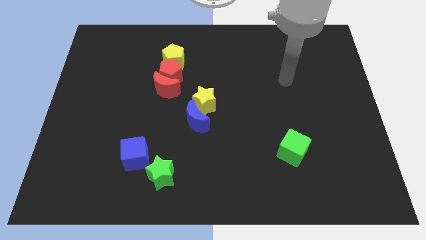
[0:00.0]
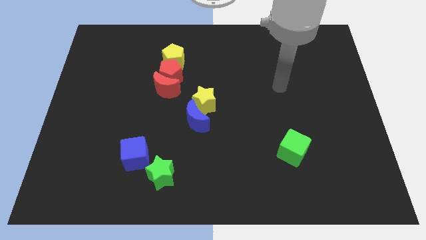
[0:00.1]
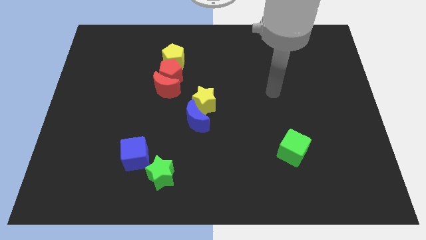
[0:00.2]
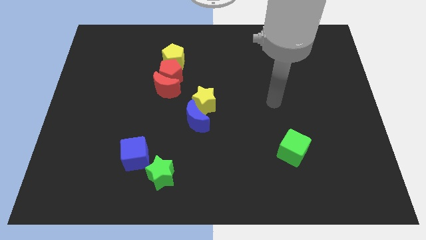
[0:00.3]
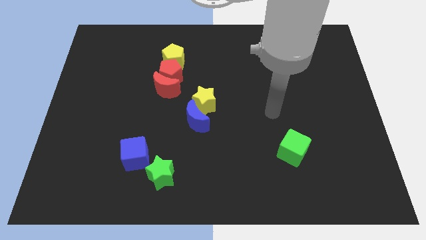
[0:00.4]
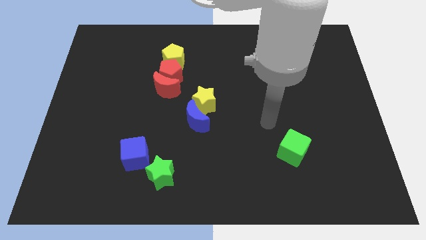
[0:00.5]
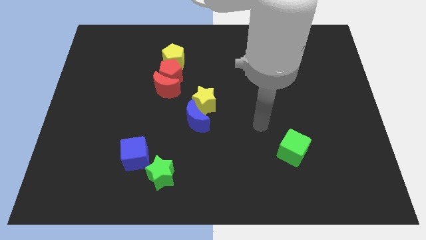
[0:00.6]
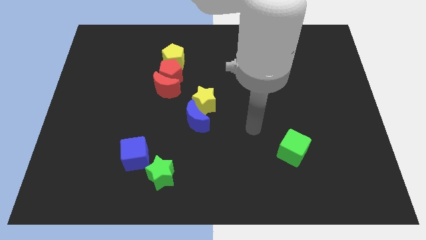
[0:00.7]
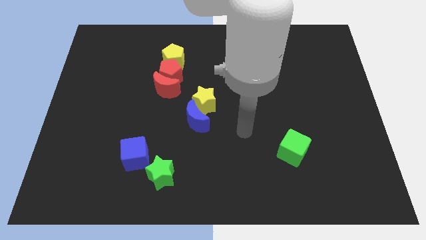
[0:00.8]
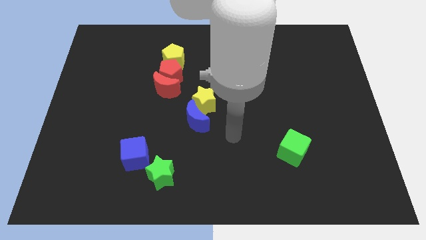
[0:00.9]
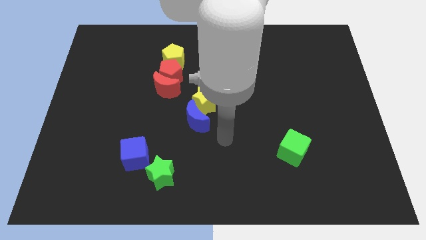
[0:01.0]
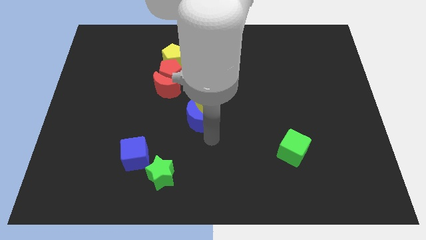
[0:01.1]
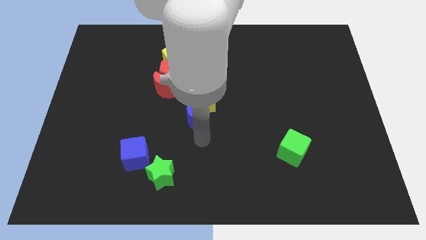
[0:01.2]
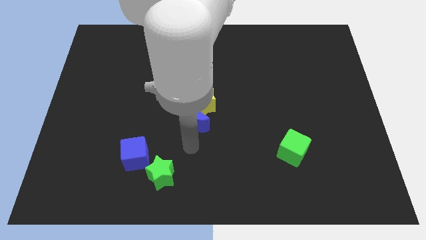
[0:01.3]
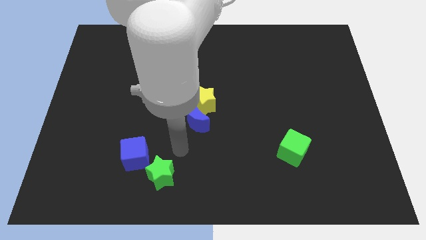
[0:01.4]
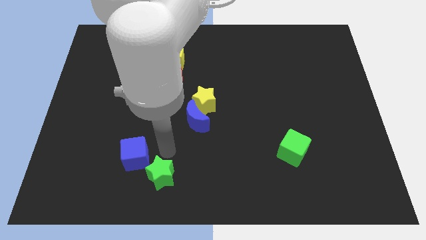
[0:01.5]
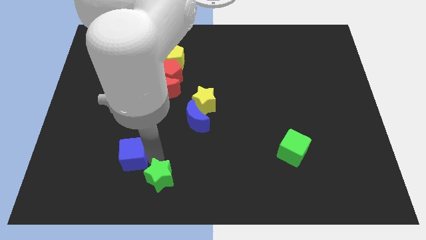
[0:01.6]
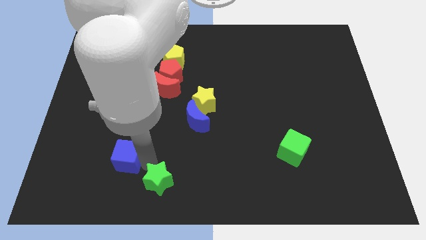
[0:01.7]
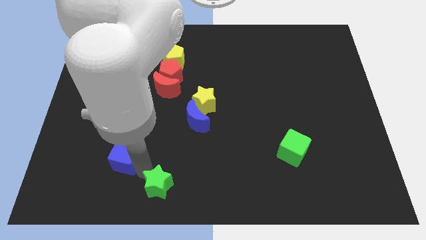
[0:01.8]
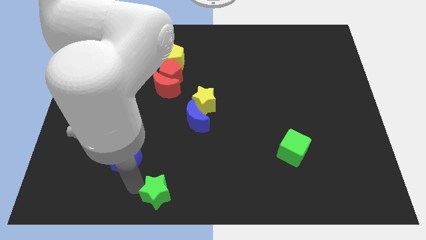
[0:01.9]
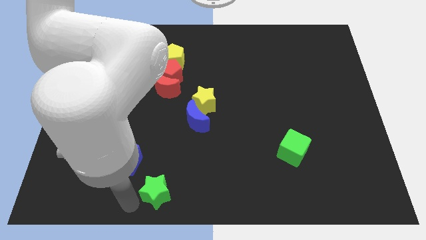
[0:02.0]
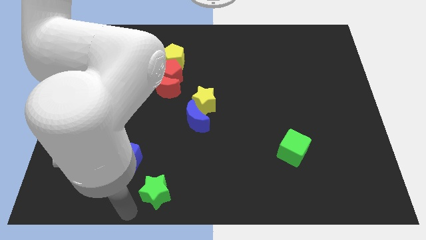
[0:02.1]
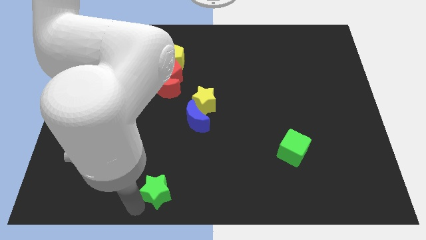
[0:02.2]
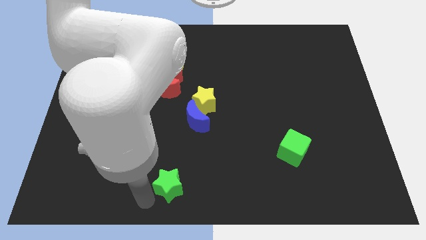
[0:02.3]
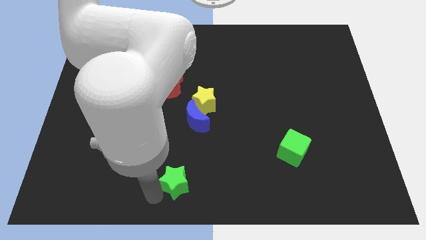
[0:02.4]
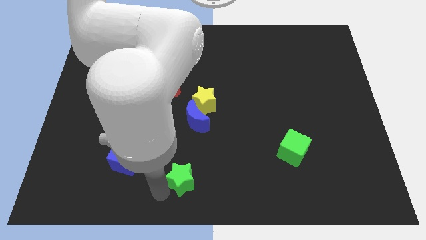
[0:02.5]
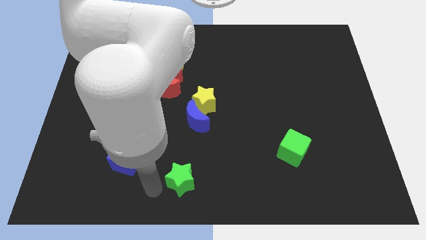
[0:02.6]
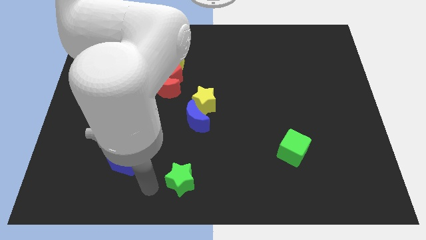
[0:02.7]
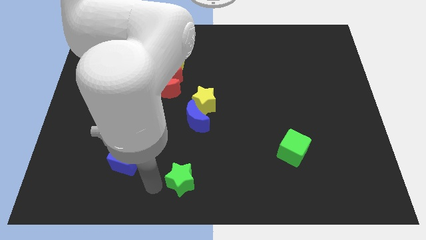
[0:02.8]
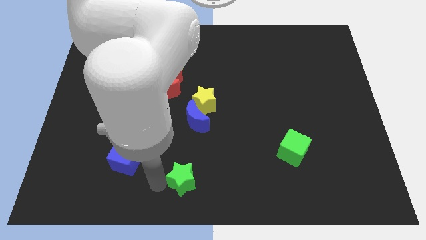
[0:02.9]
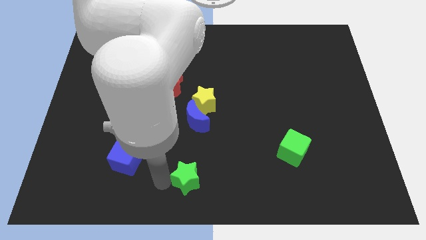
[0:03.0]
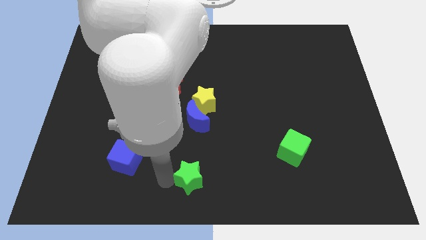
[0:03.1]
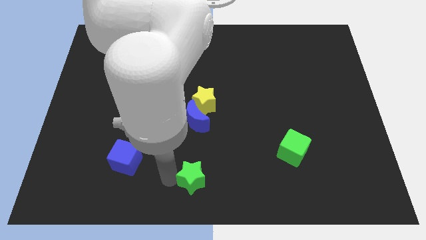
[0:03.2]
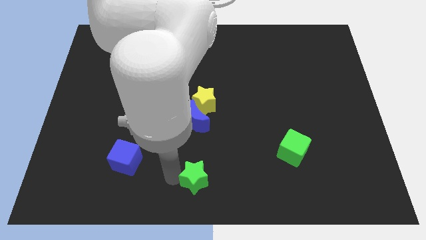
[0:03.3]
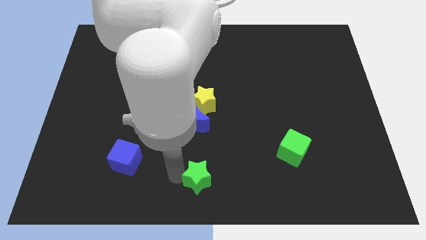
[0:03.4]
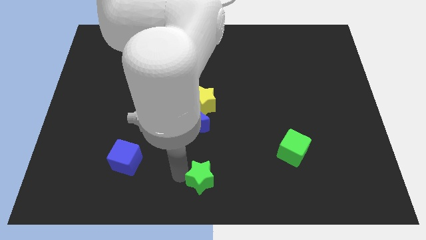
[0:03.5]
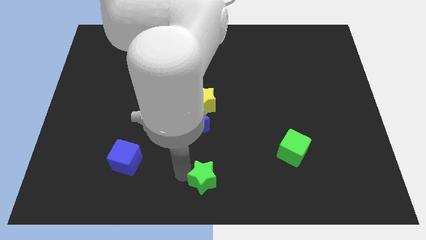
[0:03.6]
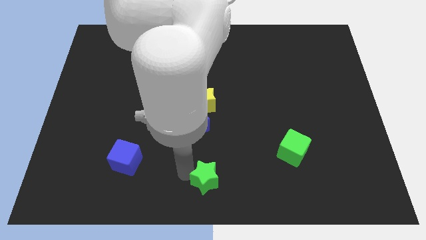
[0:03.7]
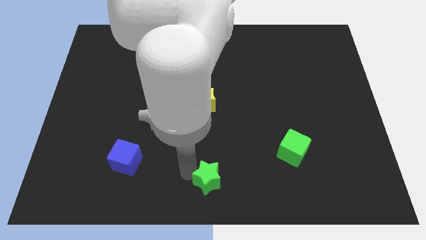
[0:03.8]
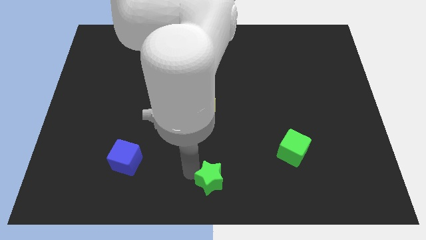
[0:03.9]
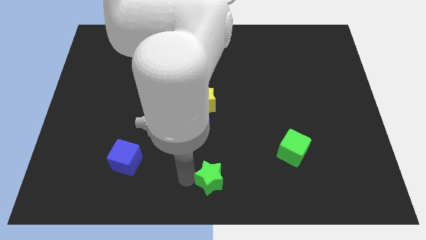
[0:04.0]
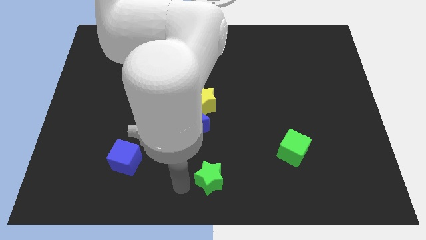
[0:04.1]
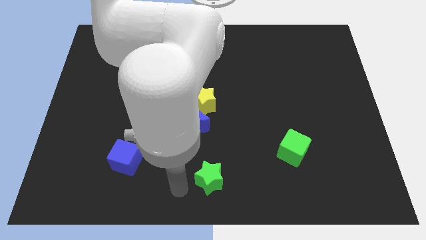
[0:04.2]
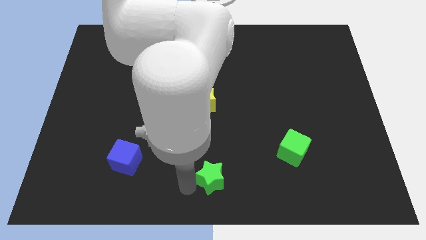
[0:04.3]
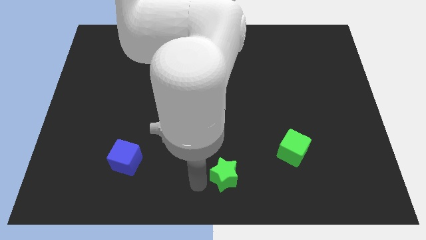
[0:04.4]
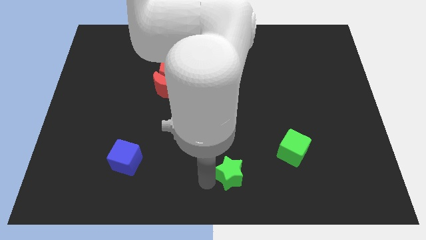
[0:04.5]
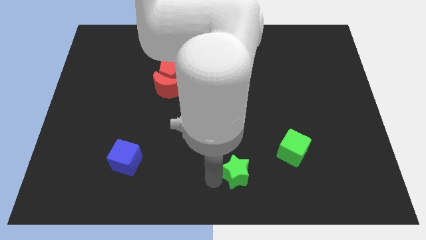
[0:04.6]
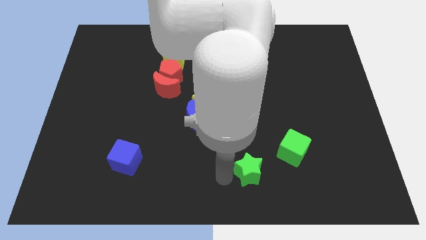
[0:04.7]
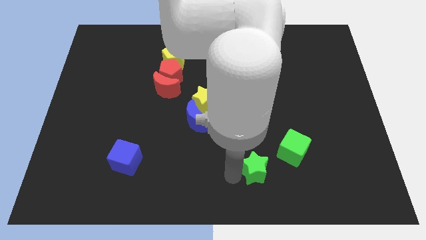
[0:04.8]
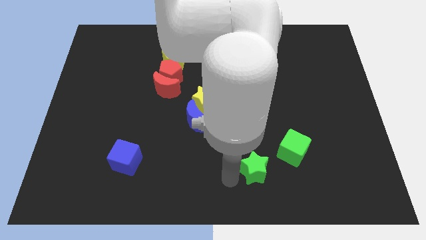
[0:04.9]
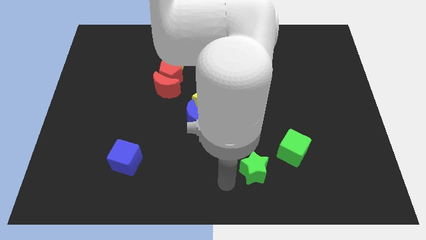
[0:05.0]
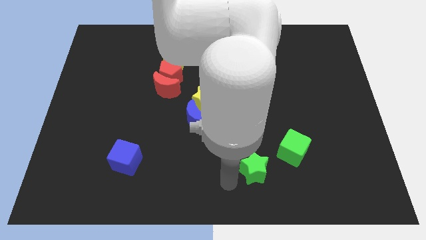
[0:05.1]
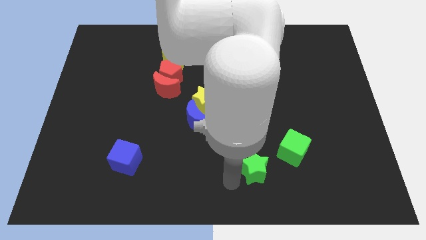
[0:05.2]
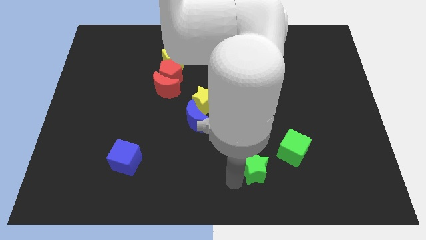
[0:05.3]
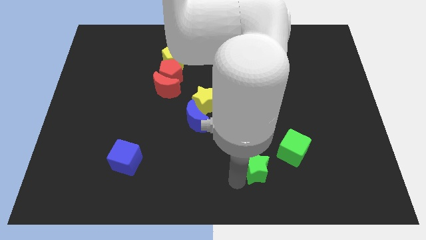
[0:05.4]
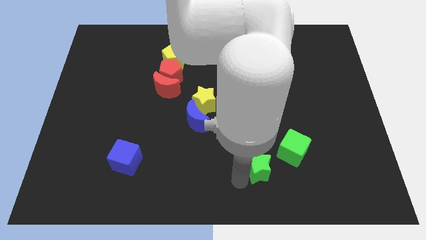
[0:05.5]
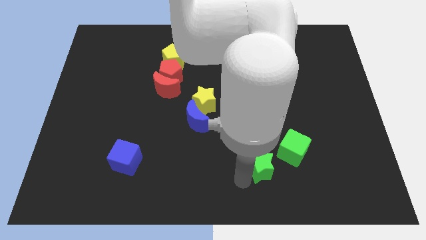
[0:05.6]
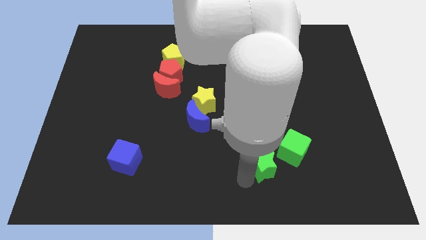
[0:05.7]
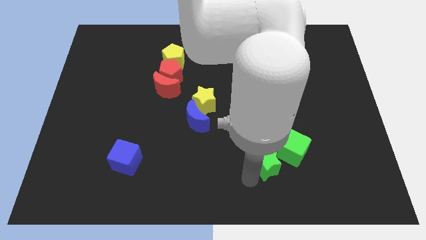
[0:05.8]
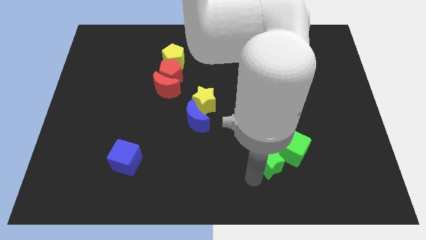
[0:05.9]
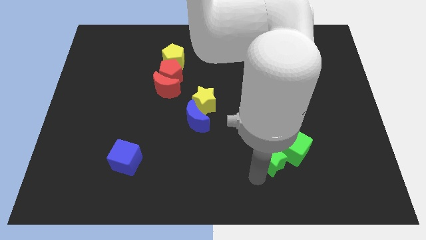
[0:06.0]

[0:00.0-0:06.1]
move the green star close to the green cube

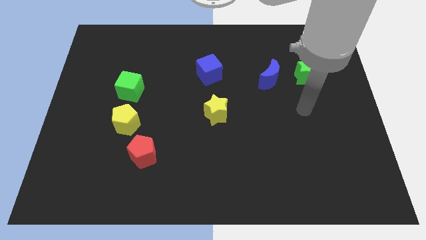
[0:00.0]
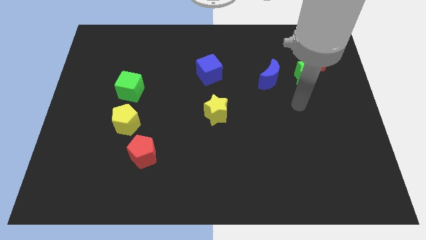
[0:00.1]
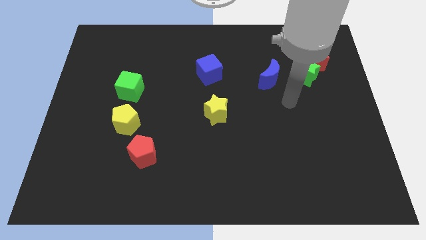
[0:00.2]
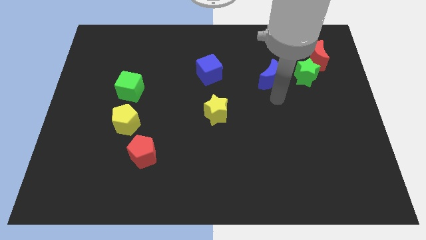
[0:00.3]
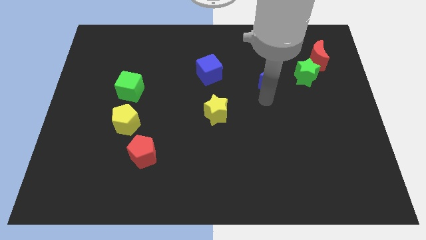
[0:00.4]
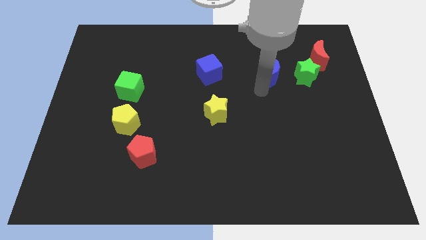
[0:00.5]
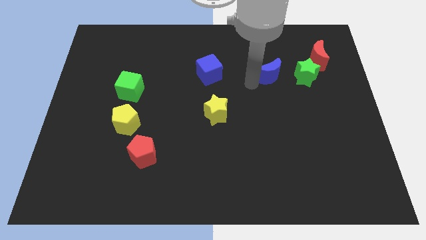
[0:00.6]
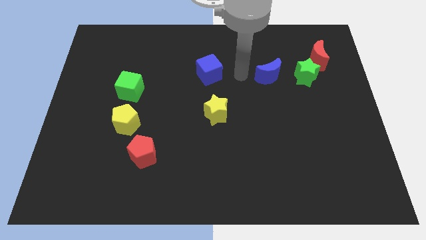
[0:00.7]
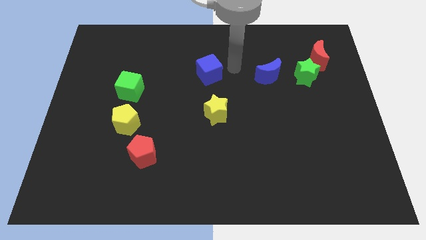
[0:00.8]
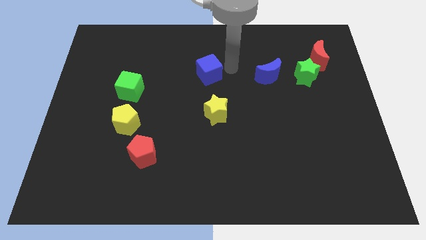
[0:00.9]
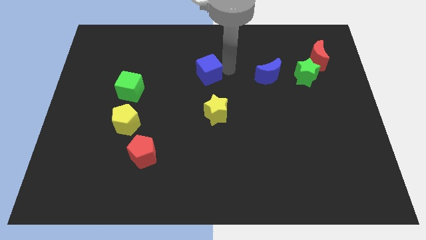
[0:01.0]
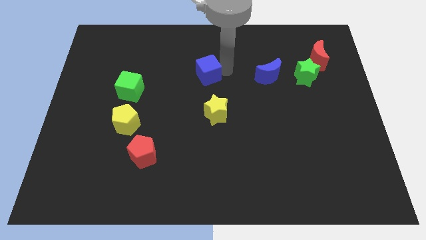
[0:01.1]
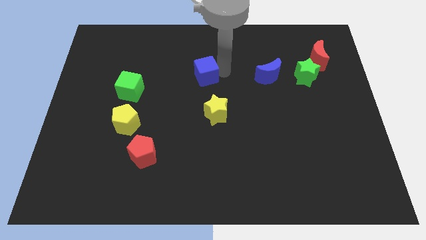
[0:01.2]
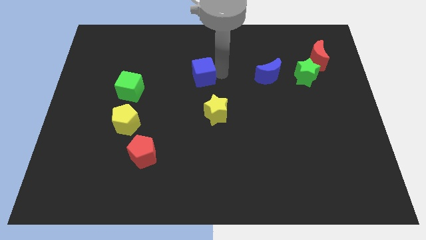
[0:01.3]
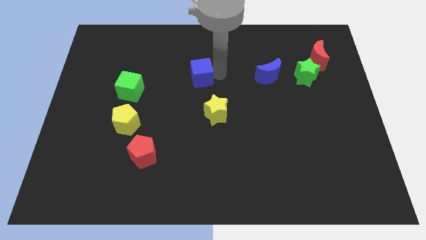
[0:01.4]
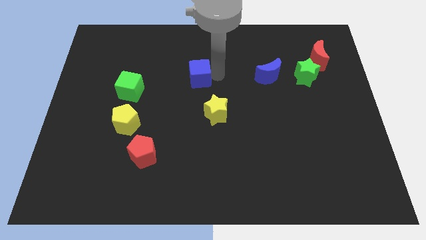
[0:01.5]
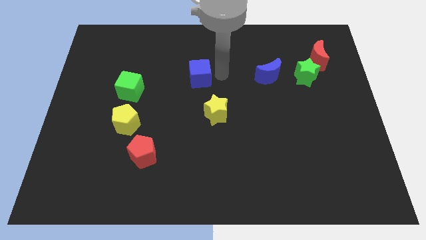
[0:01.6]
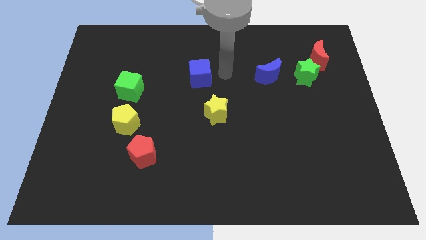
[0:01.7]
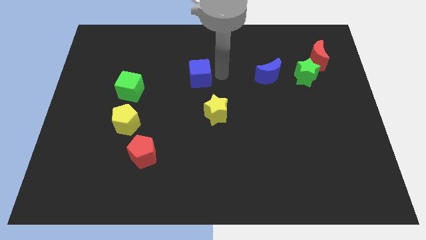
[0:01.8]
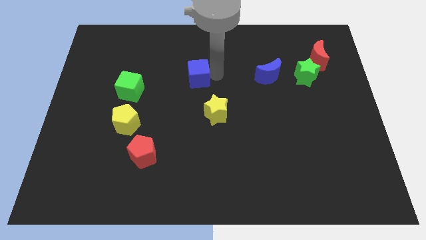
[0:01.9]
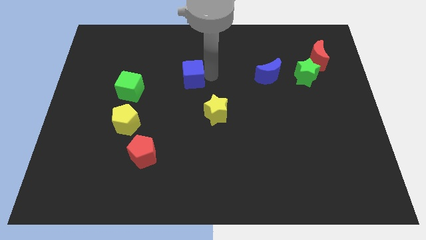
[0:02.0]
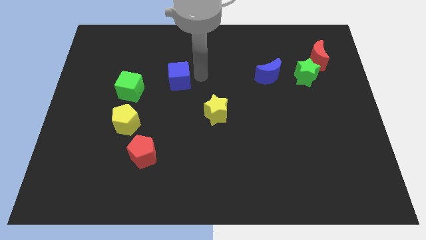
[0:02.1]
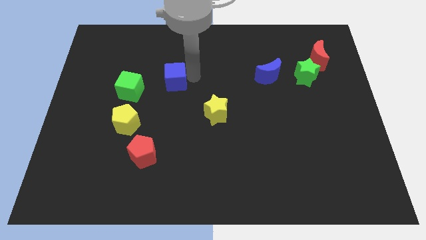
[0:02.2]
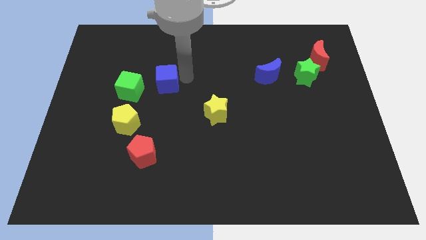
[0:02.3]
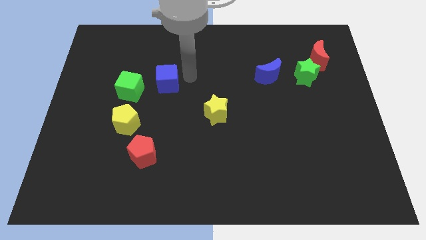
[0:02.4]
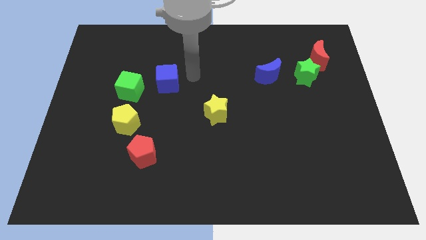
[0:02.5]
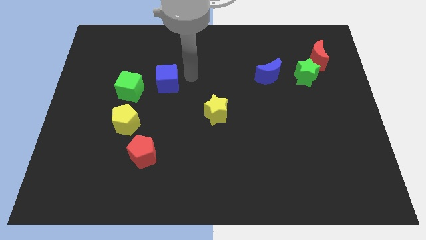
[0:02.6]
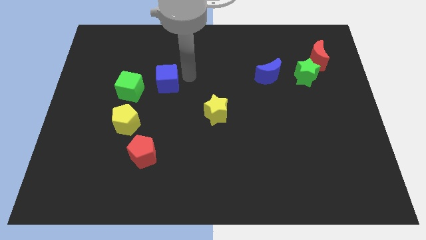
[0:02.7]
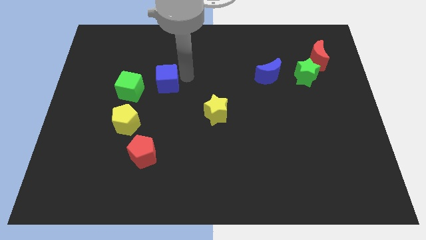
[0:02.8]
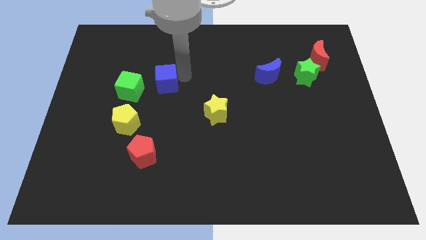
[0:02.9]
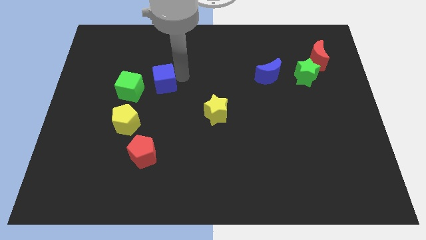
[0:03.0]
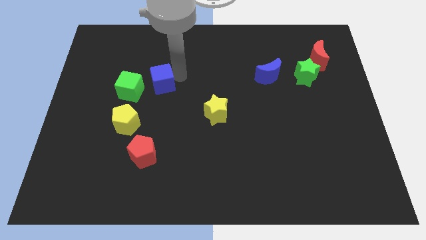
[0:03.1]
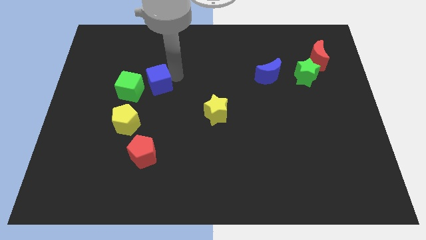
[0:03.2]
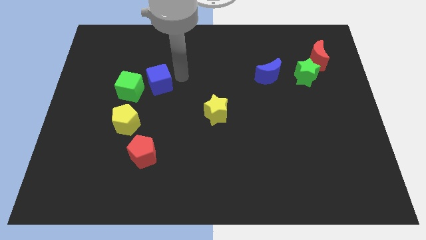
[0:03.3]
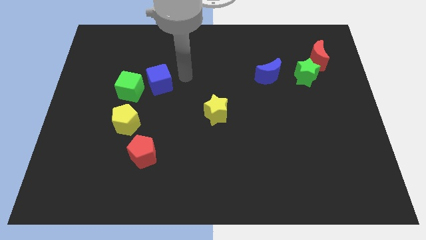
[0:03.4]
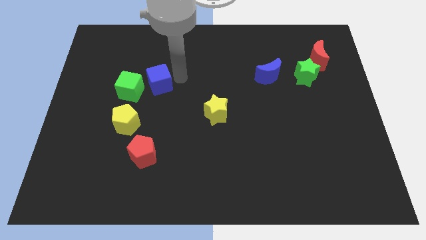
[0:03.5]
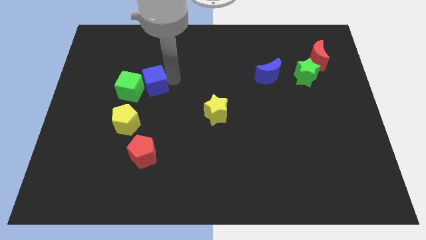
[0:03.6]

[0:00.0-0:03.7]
push the blue cube close to the green cube
